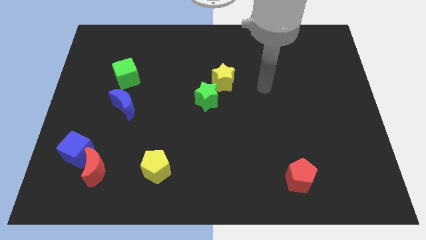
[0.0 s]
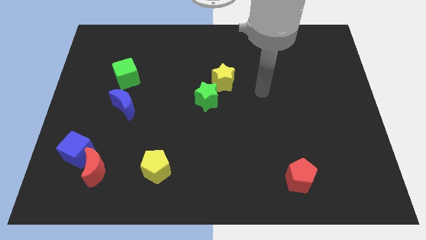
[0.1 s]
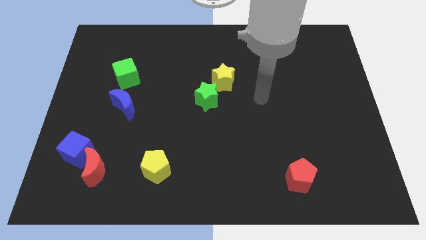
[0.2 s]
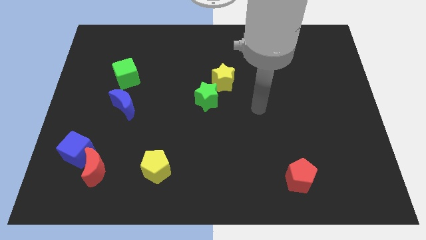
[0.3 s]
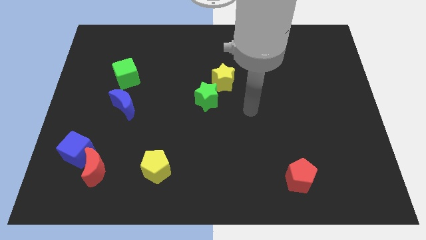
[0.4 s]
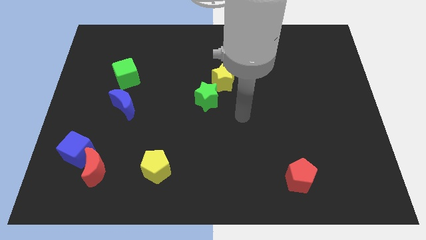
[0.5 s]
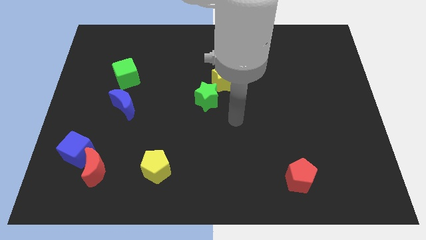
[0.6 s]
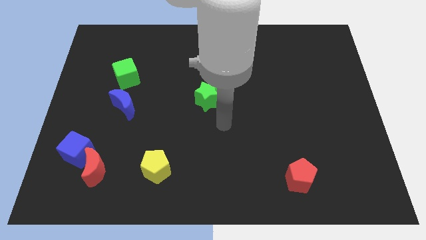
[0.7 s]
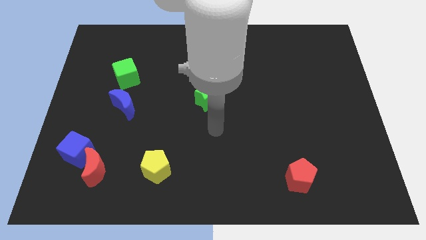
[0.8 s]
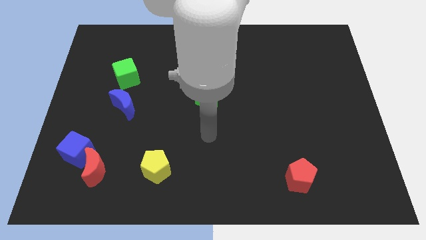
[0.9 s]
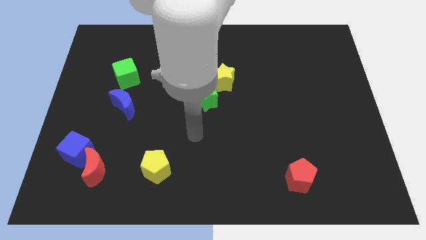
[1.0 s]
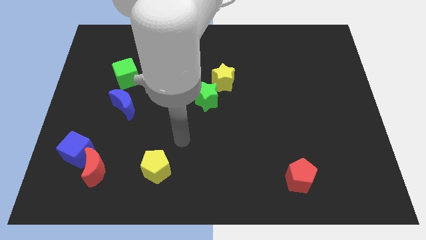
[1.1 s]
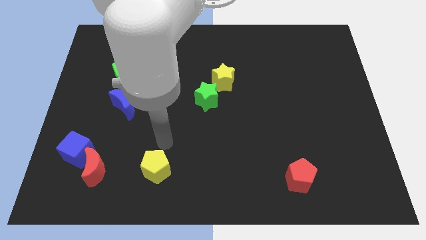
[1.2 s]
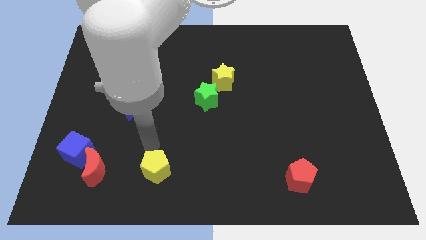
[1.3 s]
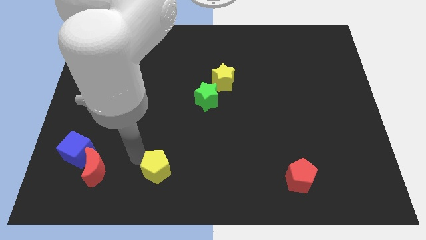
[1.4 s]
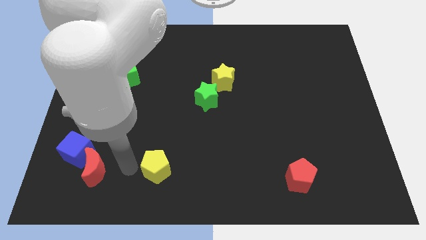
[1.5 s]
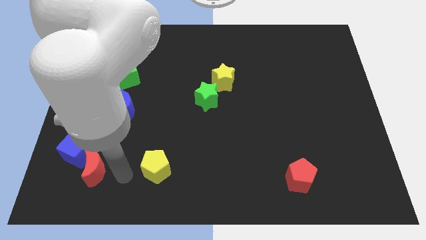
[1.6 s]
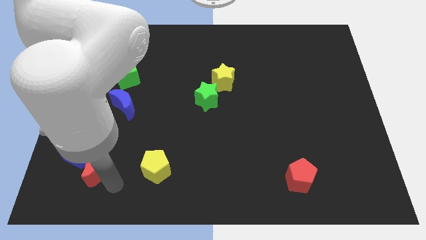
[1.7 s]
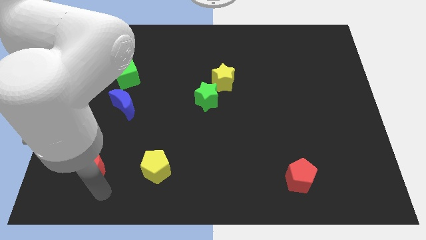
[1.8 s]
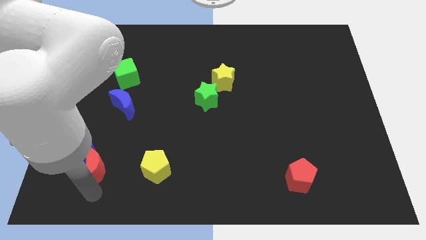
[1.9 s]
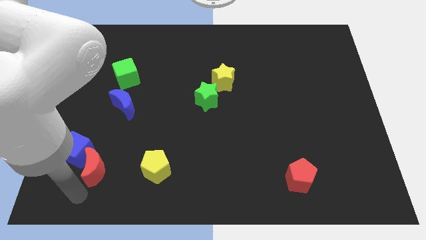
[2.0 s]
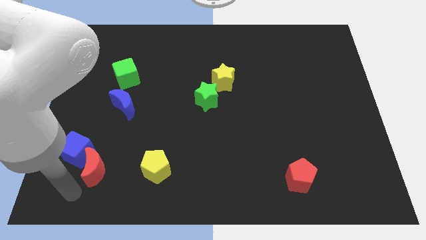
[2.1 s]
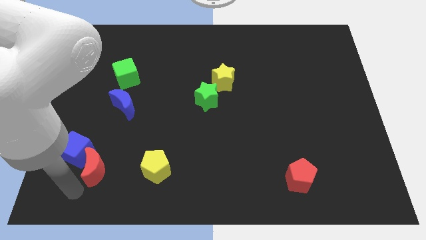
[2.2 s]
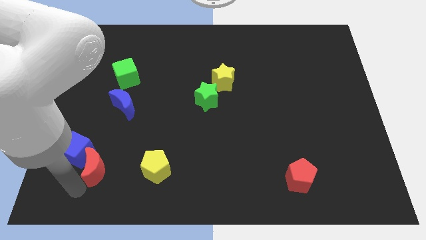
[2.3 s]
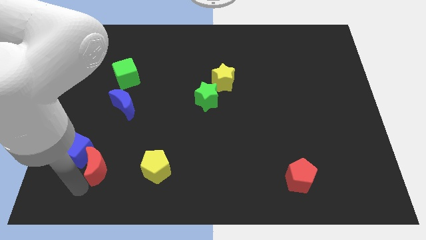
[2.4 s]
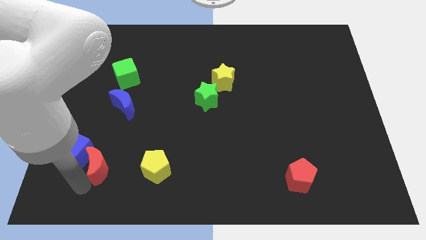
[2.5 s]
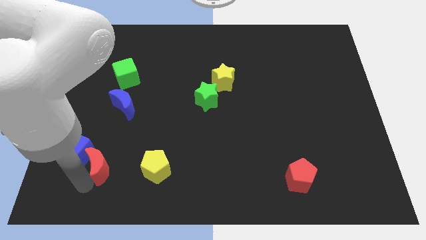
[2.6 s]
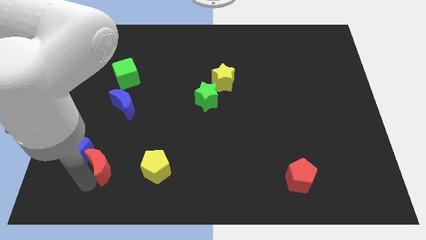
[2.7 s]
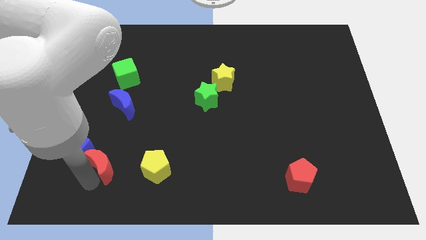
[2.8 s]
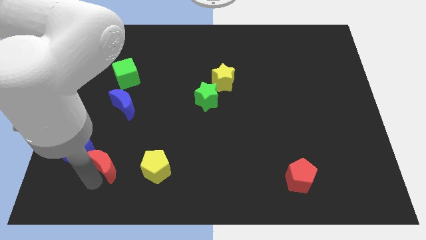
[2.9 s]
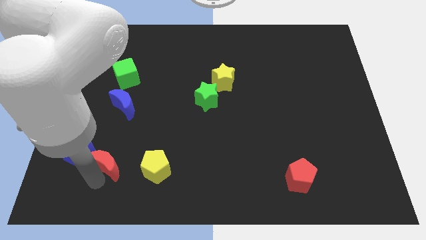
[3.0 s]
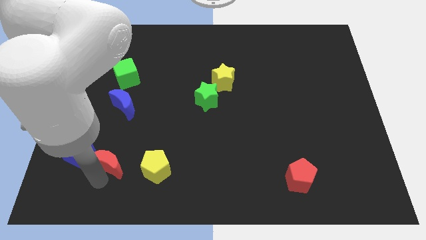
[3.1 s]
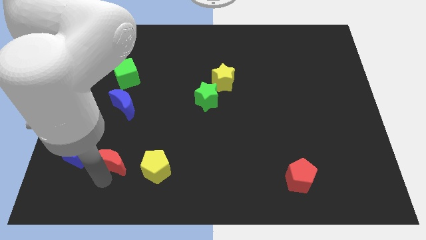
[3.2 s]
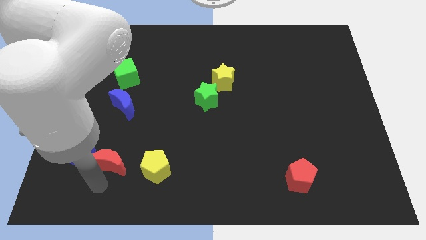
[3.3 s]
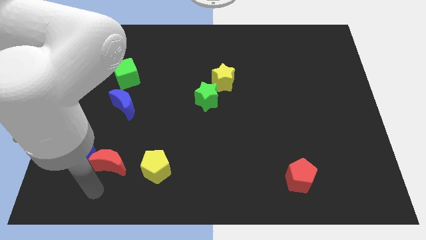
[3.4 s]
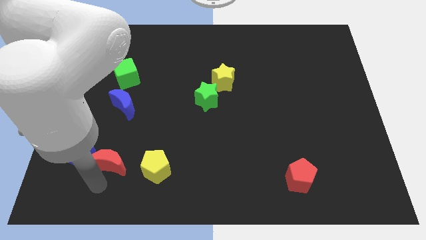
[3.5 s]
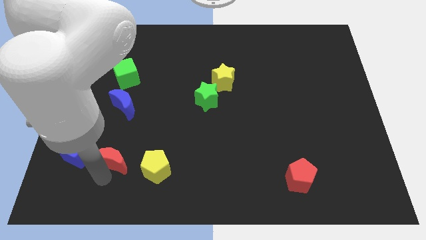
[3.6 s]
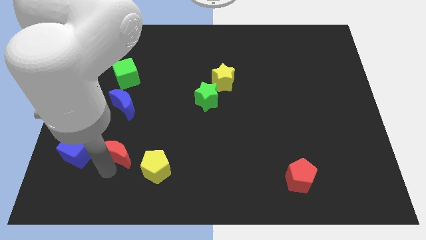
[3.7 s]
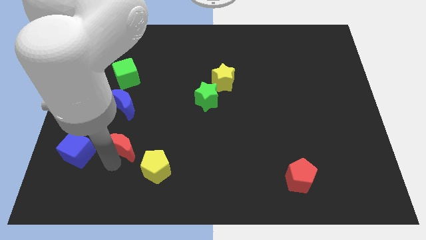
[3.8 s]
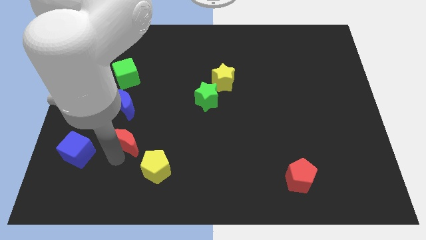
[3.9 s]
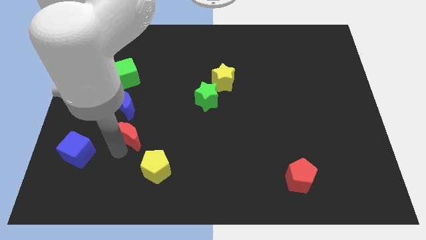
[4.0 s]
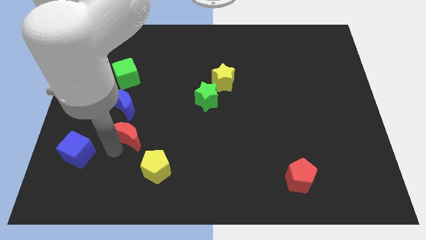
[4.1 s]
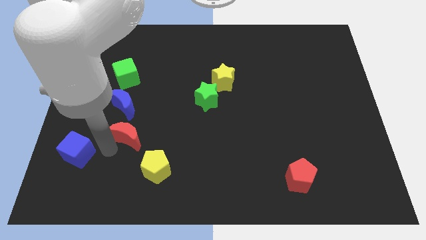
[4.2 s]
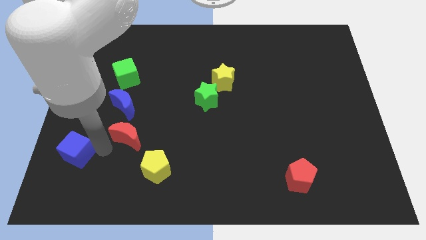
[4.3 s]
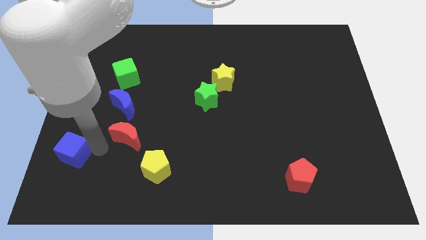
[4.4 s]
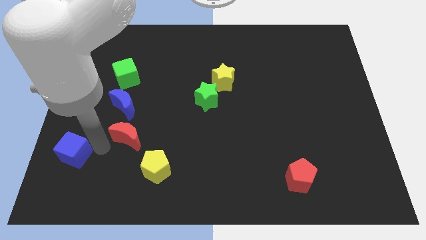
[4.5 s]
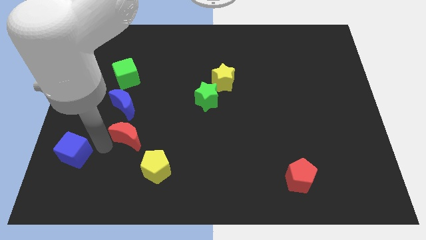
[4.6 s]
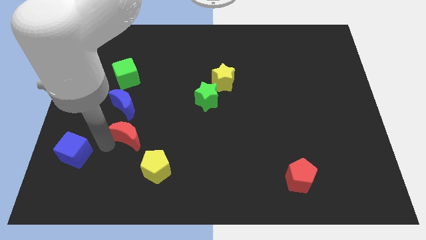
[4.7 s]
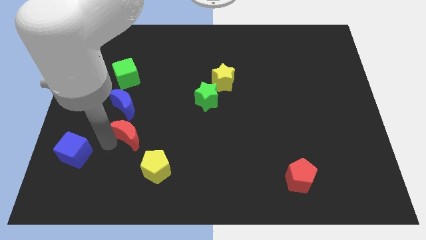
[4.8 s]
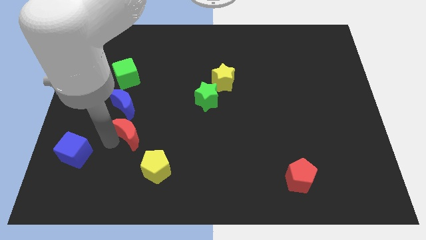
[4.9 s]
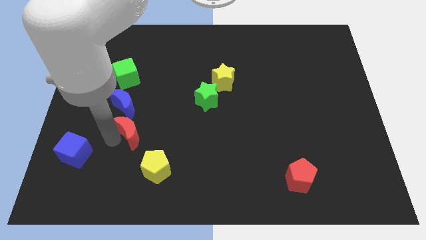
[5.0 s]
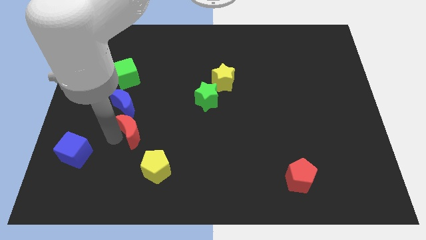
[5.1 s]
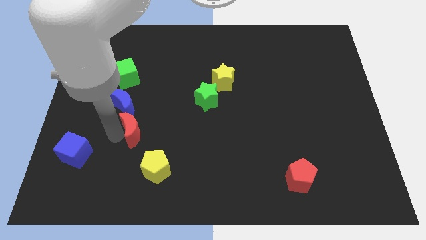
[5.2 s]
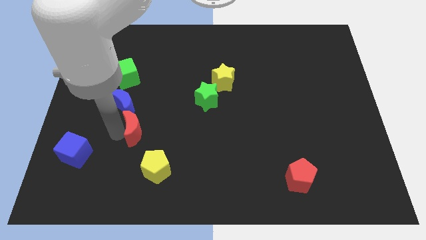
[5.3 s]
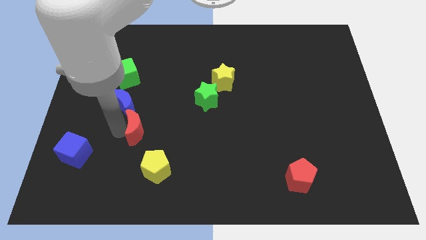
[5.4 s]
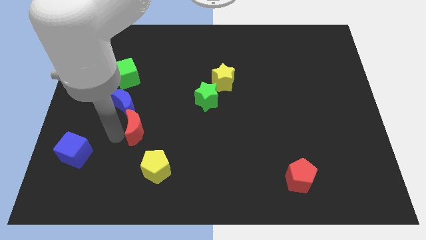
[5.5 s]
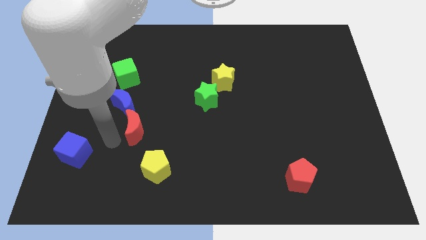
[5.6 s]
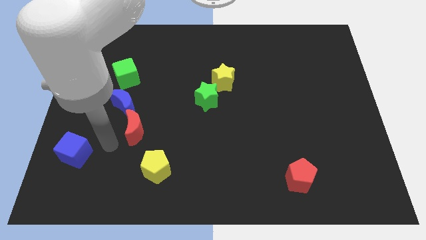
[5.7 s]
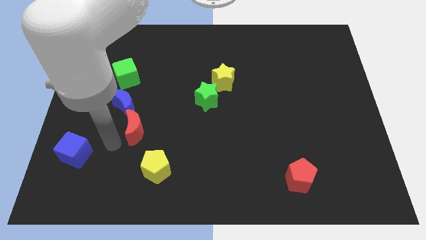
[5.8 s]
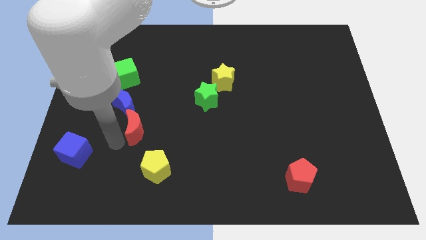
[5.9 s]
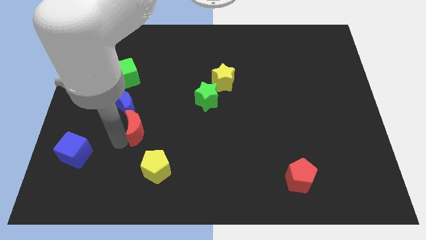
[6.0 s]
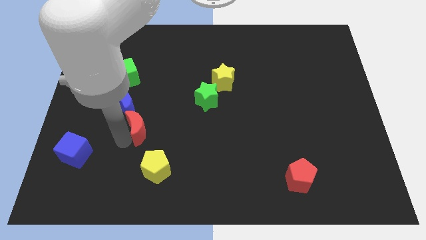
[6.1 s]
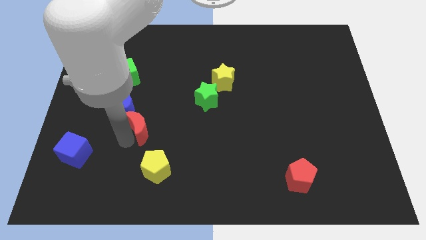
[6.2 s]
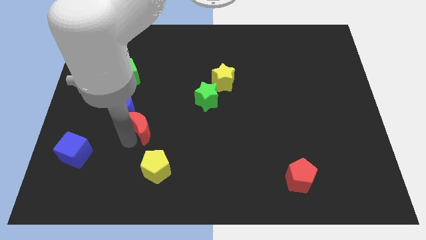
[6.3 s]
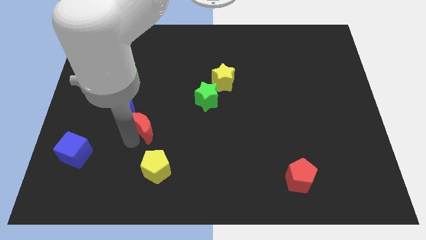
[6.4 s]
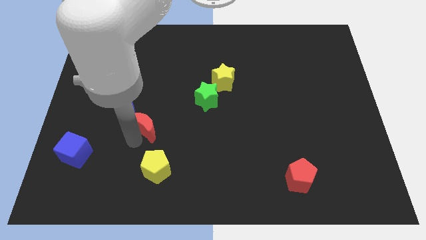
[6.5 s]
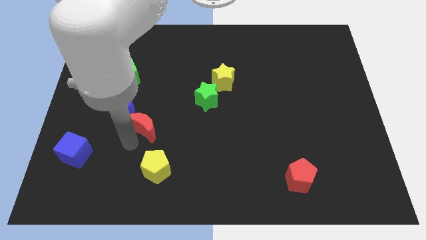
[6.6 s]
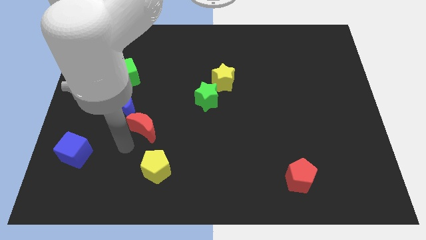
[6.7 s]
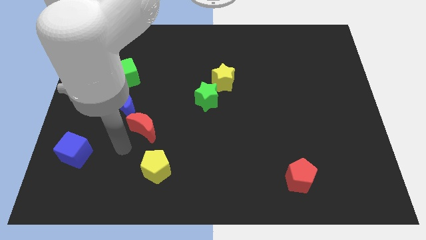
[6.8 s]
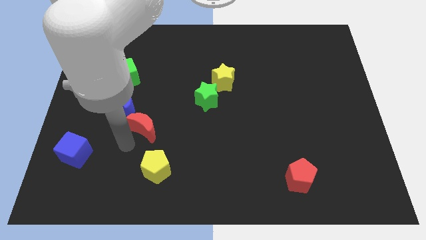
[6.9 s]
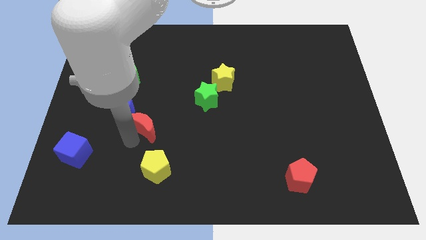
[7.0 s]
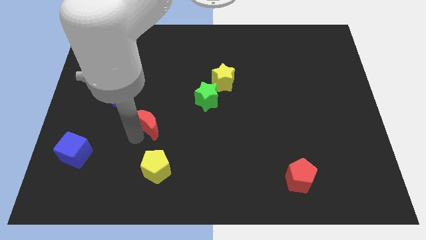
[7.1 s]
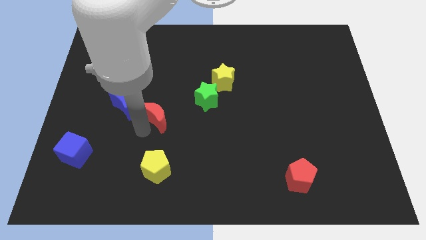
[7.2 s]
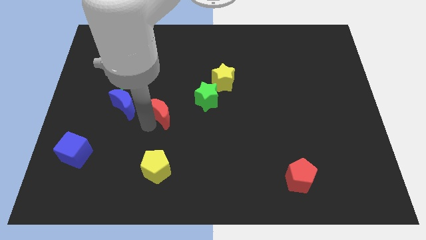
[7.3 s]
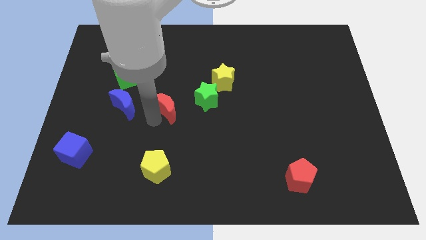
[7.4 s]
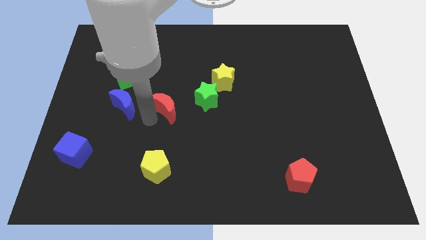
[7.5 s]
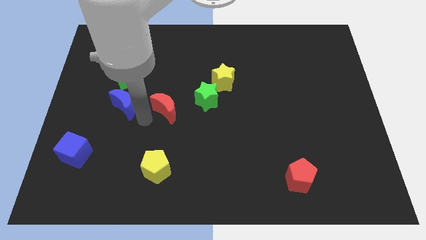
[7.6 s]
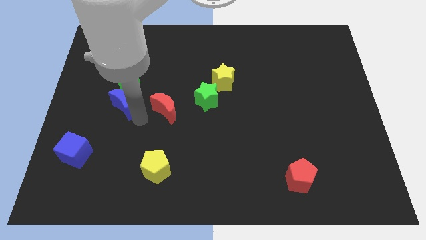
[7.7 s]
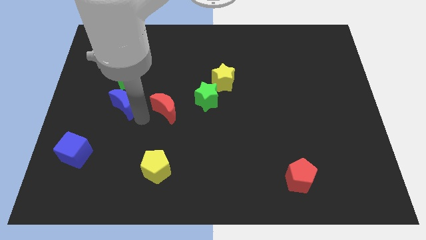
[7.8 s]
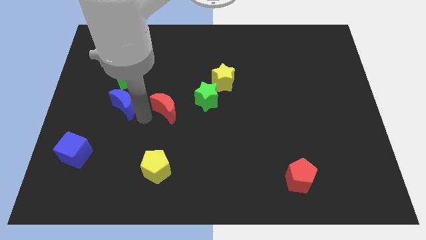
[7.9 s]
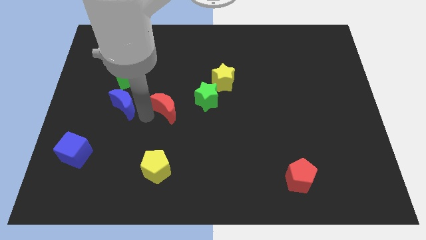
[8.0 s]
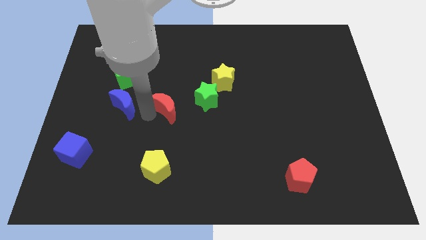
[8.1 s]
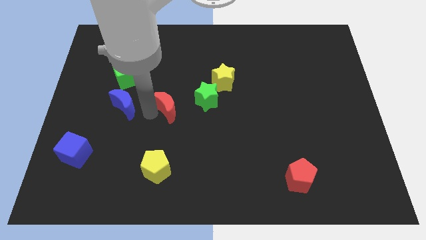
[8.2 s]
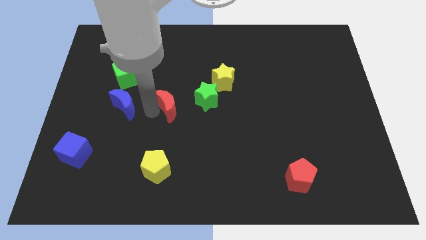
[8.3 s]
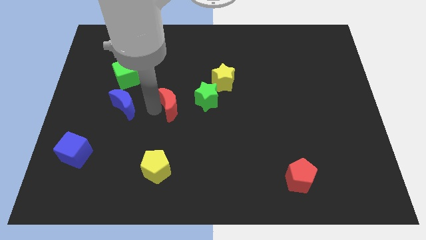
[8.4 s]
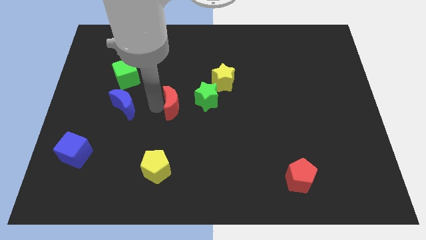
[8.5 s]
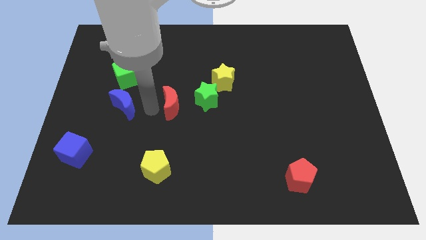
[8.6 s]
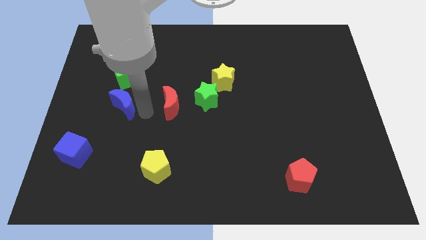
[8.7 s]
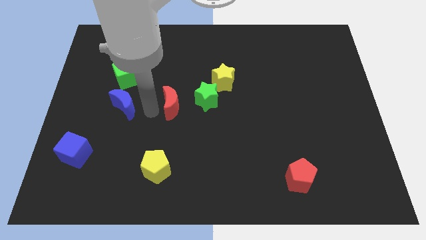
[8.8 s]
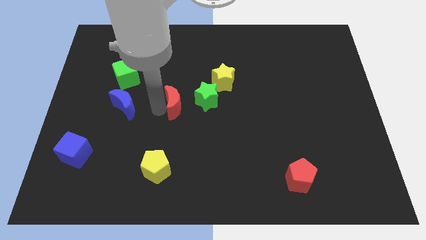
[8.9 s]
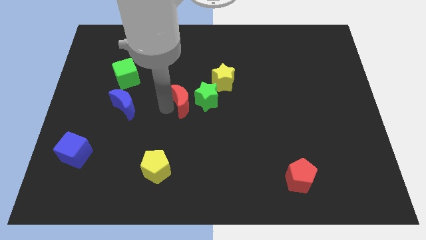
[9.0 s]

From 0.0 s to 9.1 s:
put the red moon to the bottom left side of the yellow star
